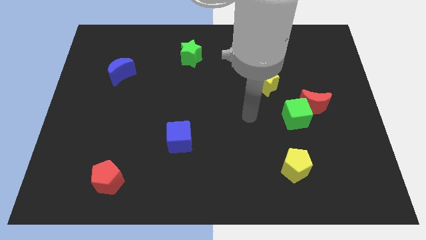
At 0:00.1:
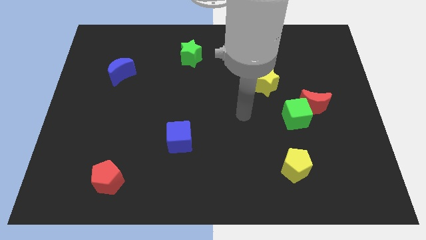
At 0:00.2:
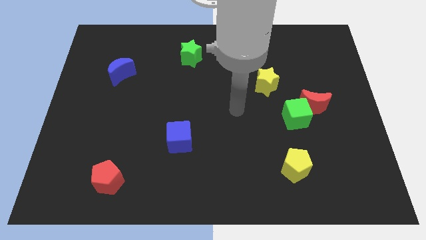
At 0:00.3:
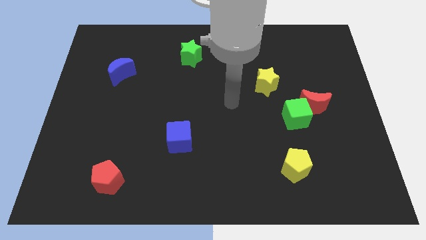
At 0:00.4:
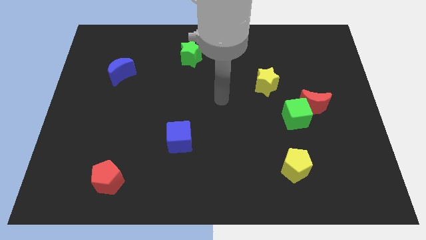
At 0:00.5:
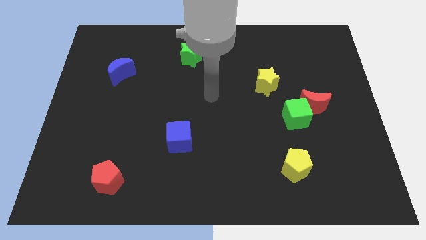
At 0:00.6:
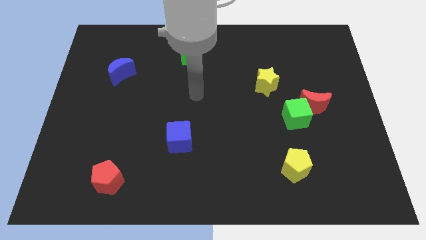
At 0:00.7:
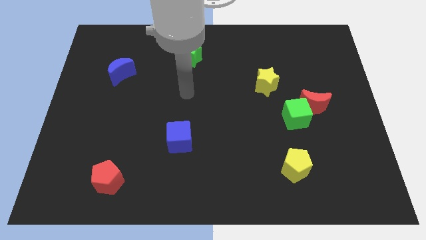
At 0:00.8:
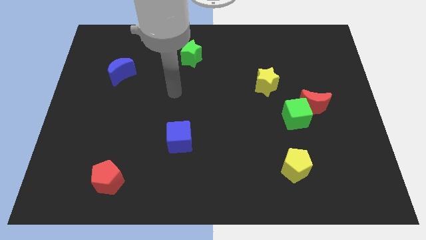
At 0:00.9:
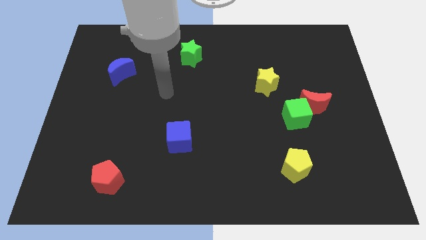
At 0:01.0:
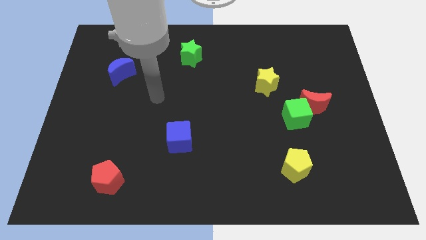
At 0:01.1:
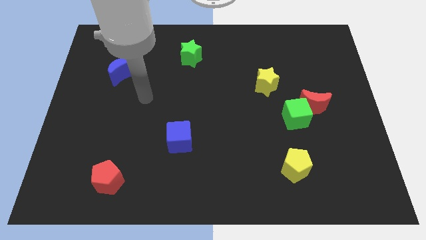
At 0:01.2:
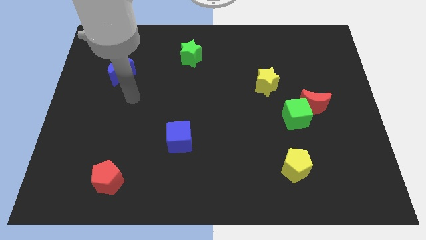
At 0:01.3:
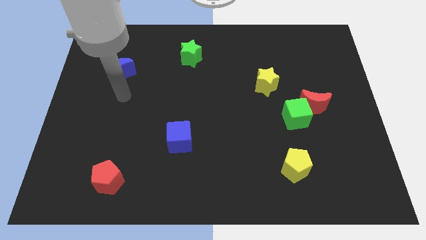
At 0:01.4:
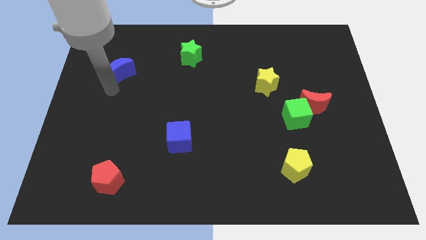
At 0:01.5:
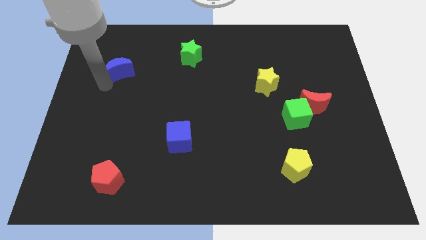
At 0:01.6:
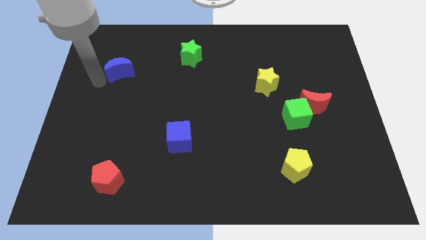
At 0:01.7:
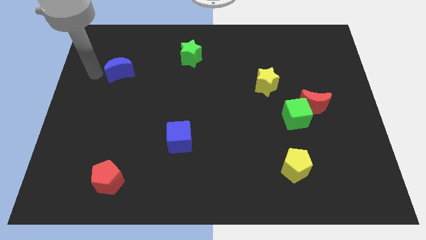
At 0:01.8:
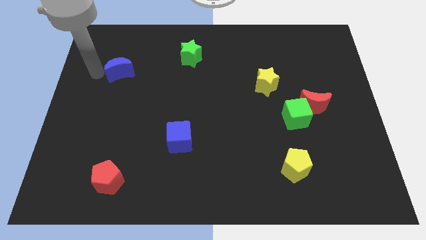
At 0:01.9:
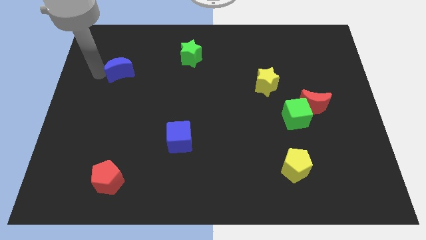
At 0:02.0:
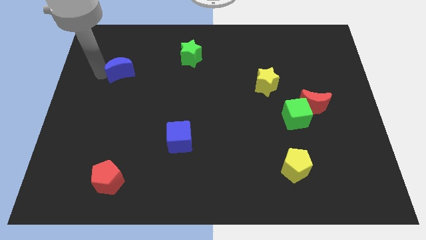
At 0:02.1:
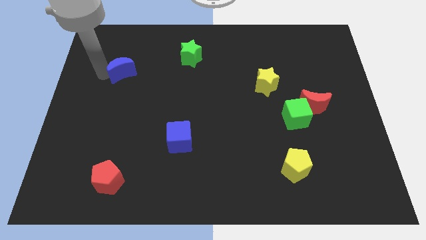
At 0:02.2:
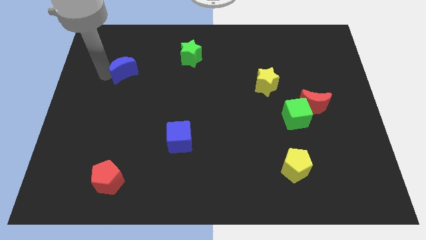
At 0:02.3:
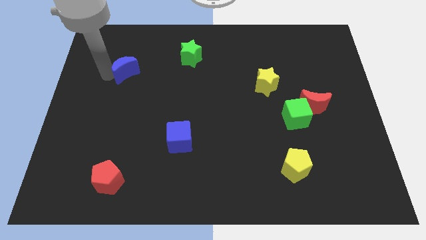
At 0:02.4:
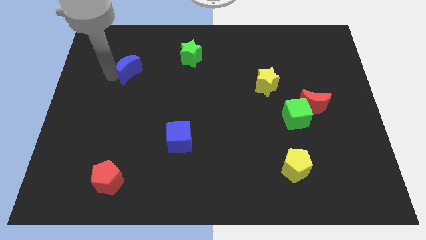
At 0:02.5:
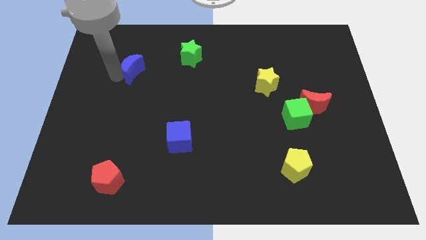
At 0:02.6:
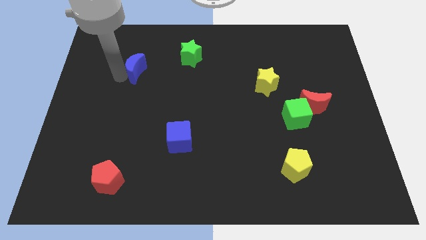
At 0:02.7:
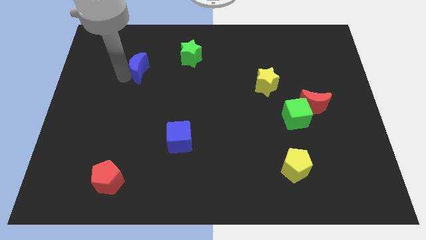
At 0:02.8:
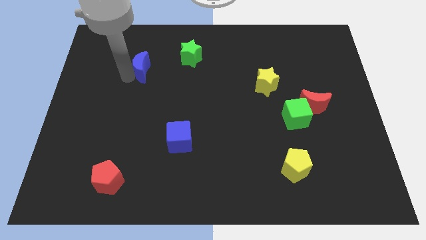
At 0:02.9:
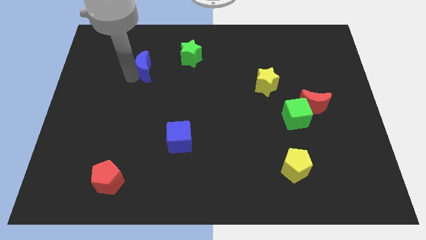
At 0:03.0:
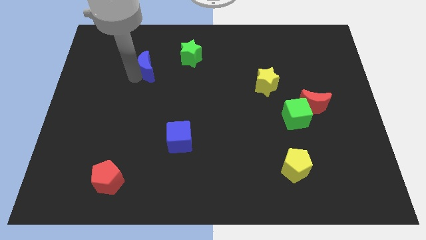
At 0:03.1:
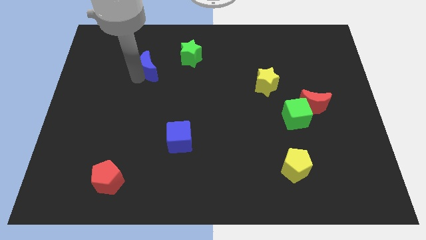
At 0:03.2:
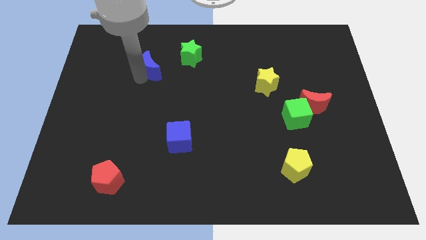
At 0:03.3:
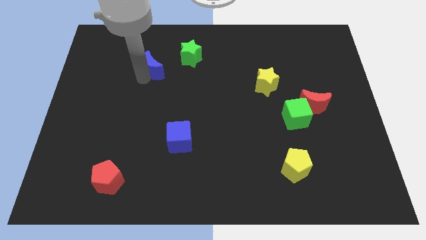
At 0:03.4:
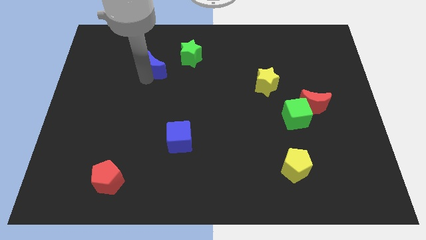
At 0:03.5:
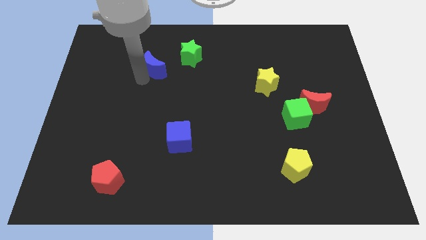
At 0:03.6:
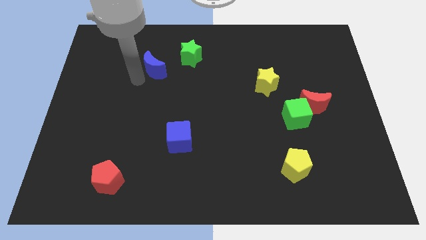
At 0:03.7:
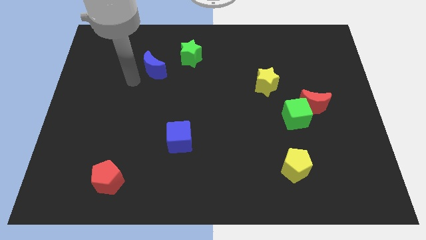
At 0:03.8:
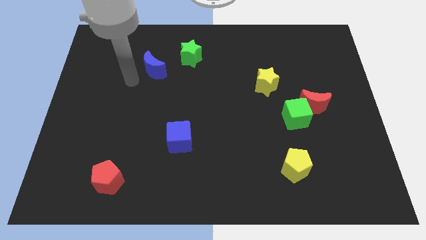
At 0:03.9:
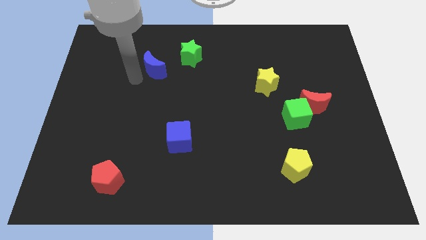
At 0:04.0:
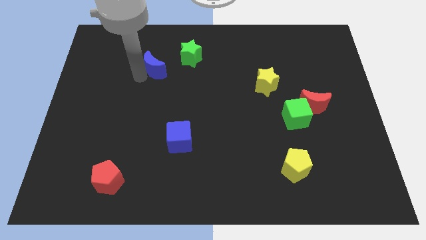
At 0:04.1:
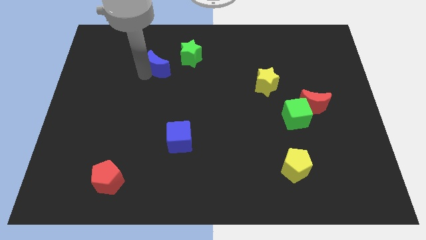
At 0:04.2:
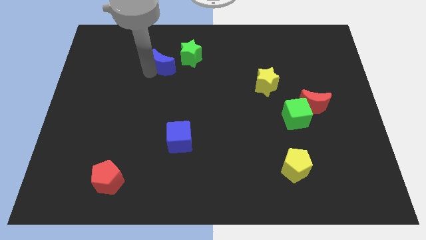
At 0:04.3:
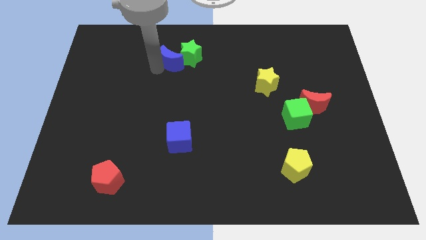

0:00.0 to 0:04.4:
push the blue moon to the green star

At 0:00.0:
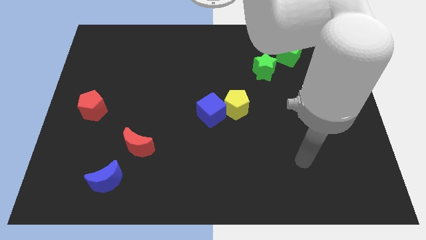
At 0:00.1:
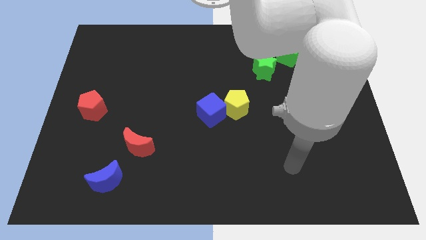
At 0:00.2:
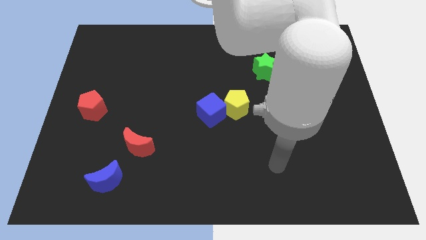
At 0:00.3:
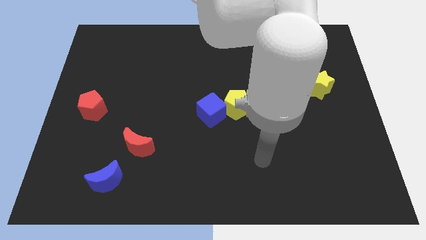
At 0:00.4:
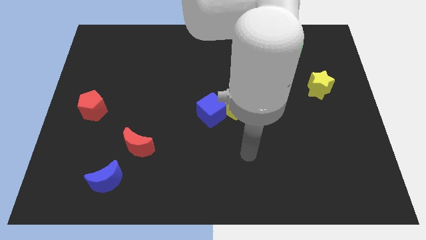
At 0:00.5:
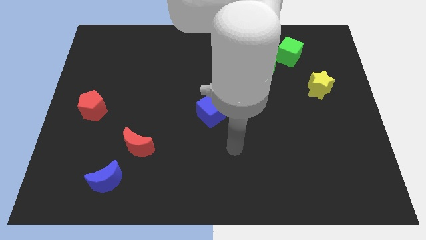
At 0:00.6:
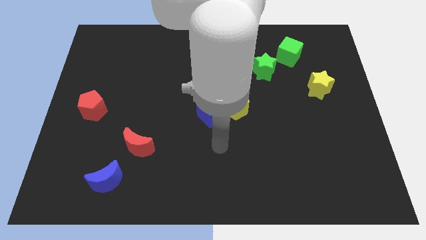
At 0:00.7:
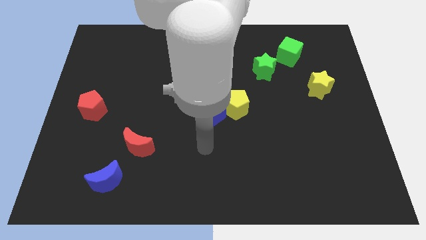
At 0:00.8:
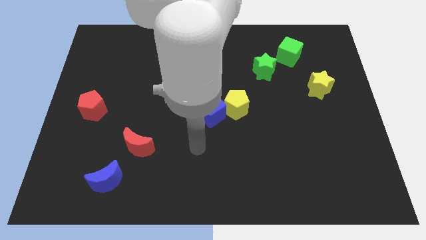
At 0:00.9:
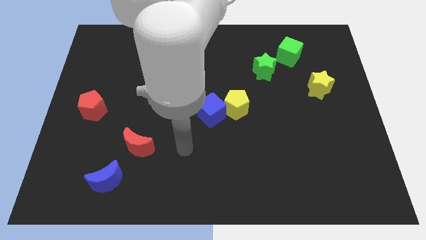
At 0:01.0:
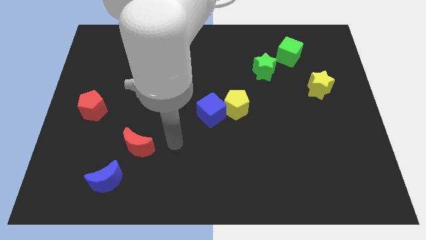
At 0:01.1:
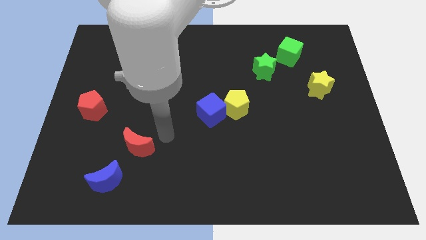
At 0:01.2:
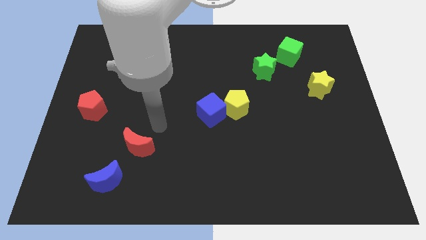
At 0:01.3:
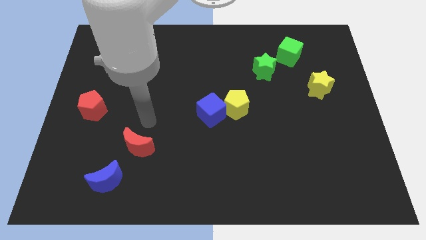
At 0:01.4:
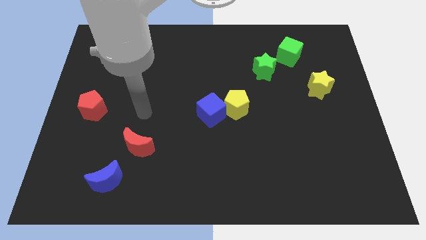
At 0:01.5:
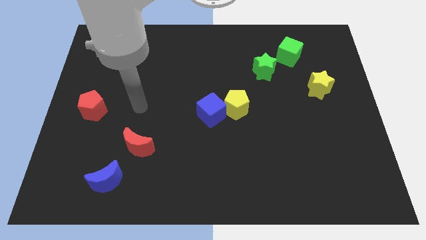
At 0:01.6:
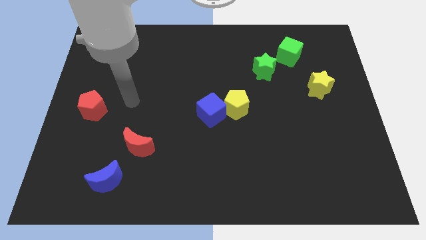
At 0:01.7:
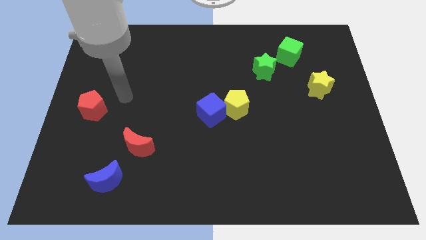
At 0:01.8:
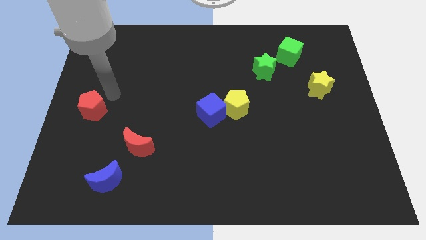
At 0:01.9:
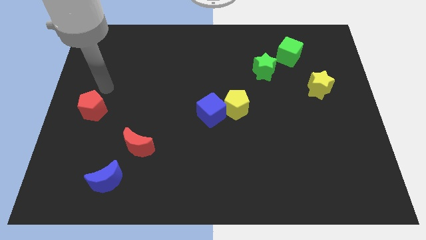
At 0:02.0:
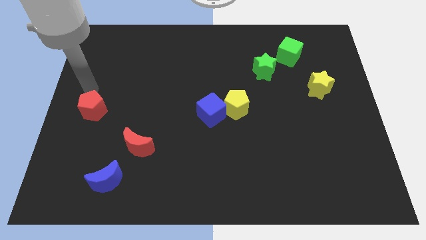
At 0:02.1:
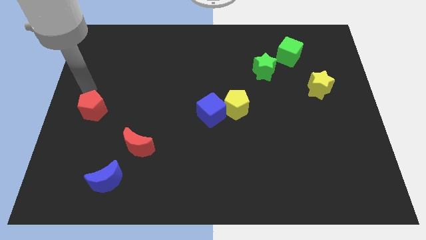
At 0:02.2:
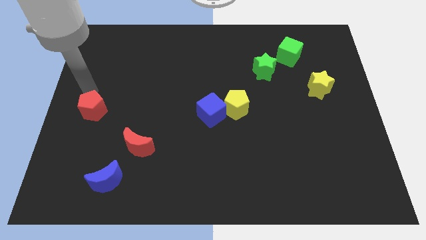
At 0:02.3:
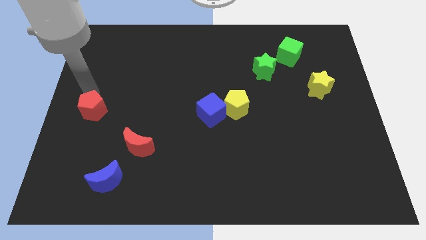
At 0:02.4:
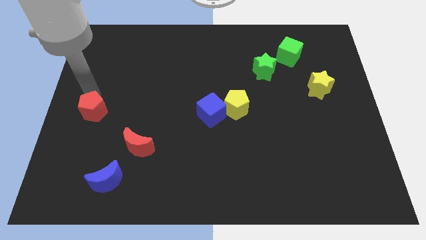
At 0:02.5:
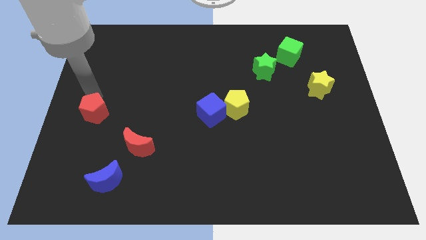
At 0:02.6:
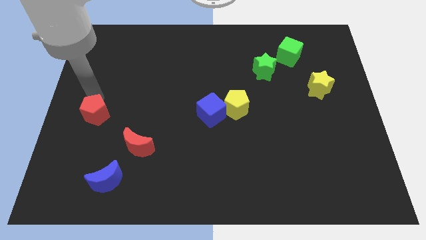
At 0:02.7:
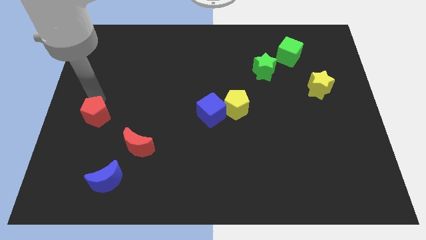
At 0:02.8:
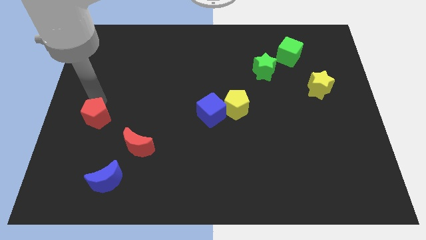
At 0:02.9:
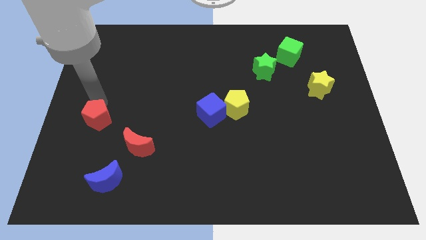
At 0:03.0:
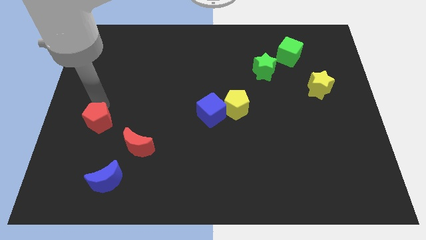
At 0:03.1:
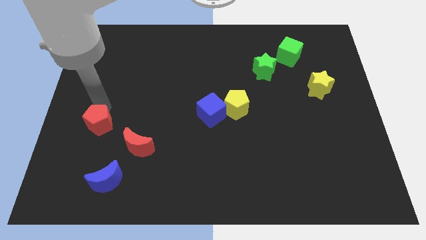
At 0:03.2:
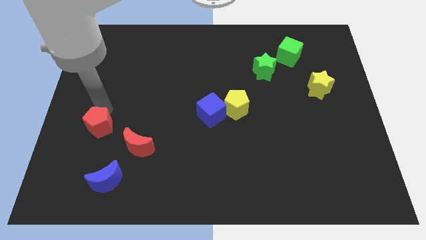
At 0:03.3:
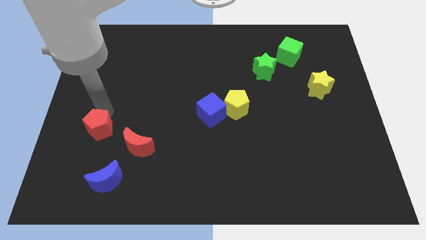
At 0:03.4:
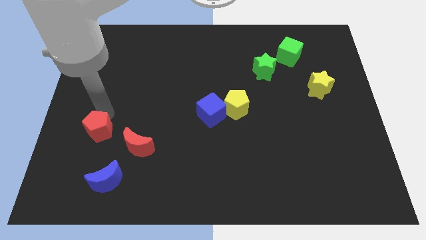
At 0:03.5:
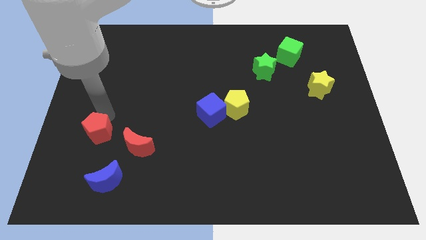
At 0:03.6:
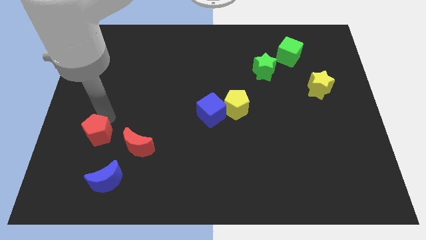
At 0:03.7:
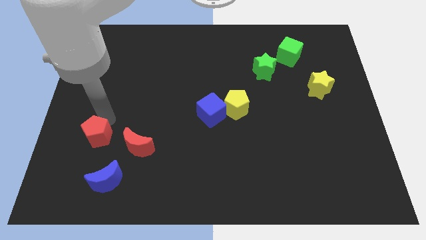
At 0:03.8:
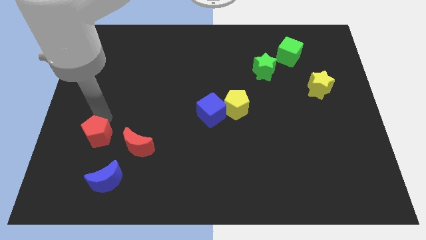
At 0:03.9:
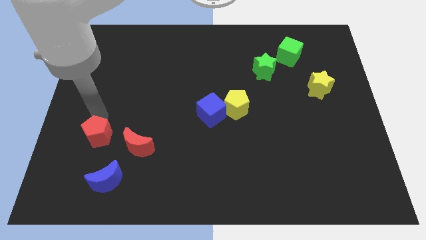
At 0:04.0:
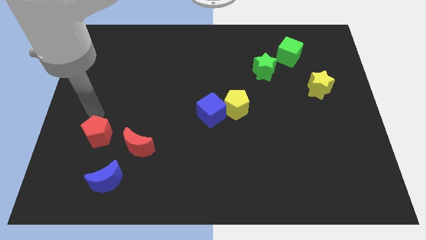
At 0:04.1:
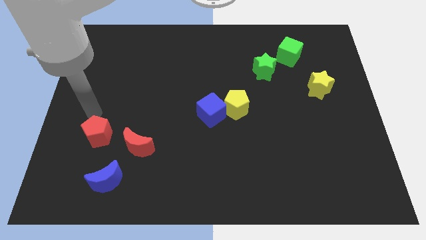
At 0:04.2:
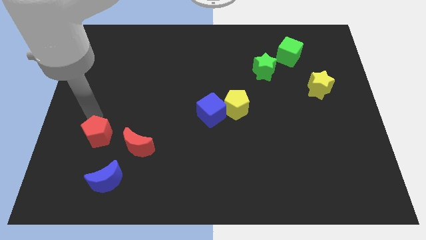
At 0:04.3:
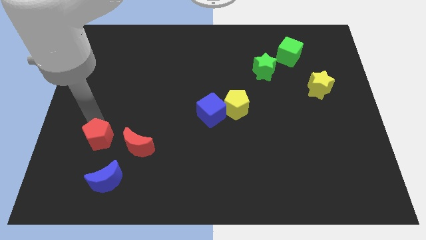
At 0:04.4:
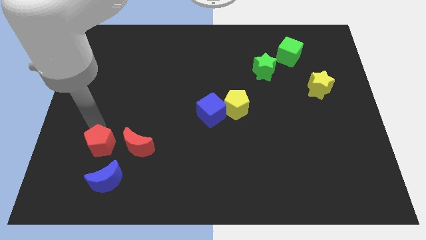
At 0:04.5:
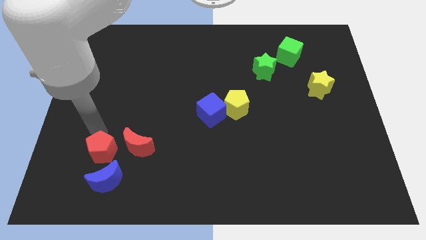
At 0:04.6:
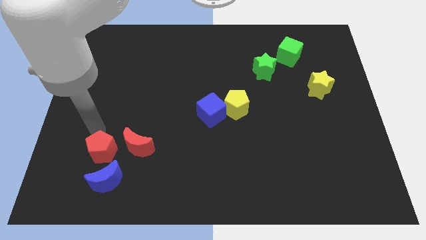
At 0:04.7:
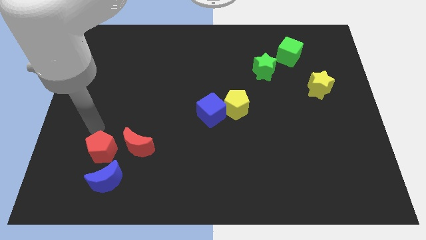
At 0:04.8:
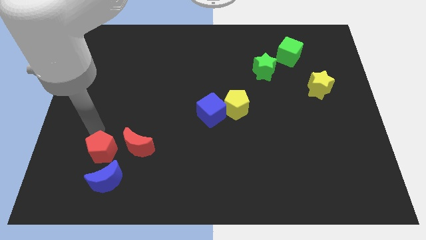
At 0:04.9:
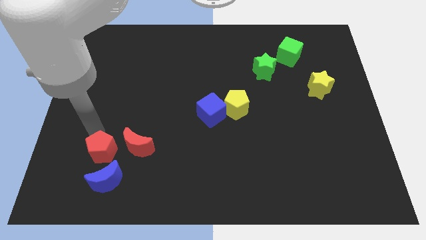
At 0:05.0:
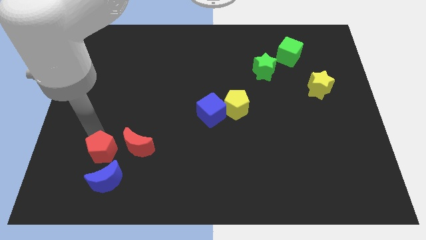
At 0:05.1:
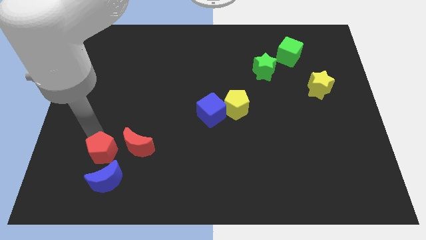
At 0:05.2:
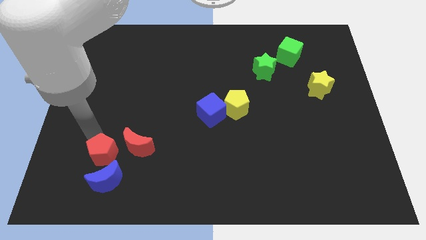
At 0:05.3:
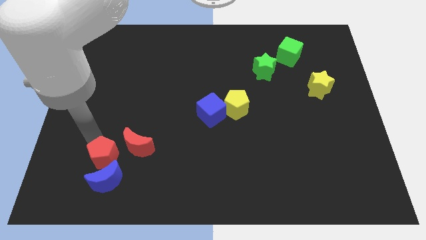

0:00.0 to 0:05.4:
move the red pentagon to the blue moon
